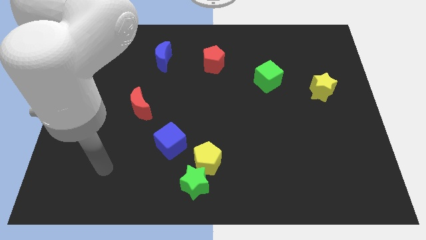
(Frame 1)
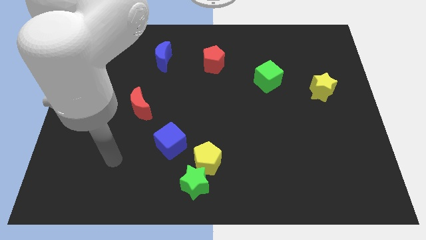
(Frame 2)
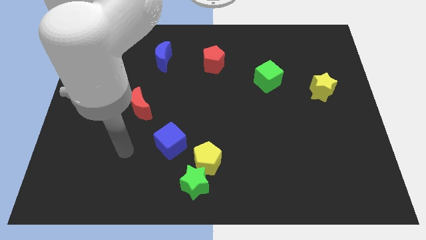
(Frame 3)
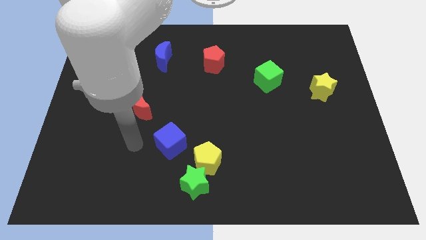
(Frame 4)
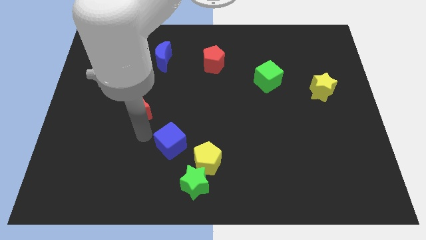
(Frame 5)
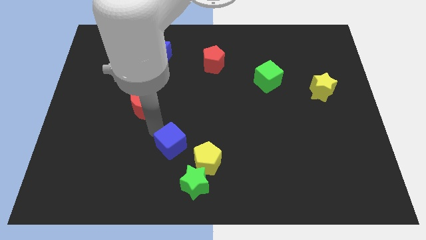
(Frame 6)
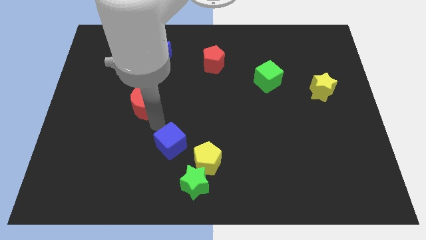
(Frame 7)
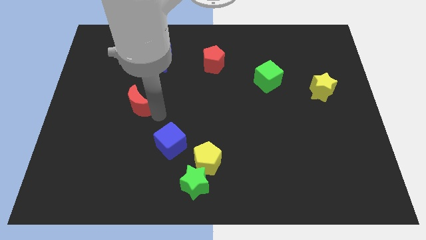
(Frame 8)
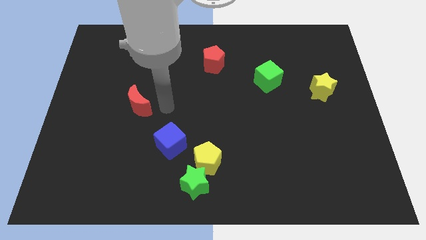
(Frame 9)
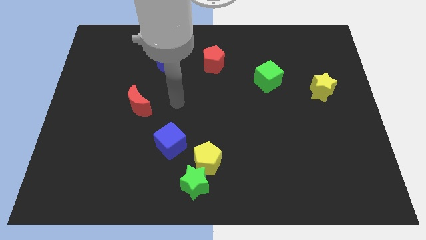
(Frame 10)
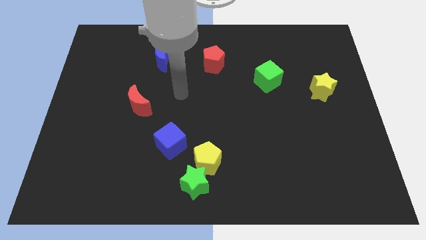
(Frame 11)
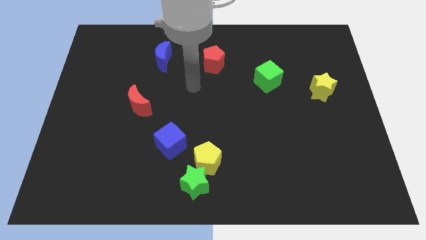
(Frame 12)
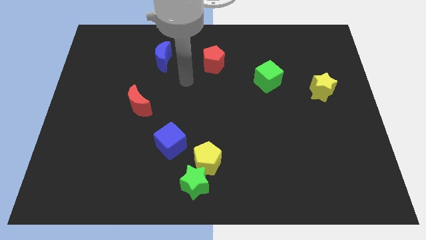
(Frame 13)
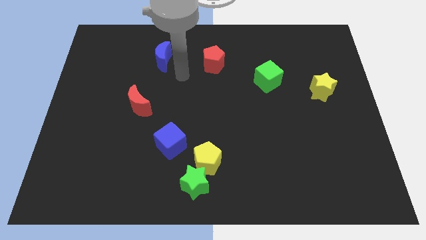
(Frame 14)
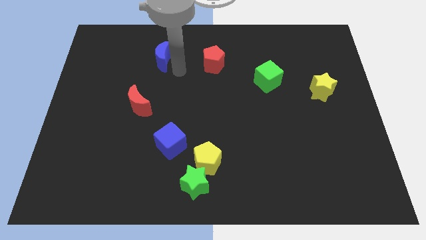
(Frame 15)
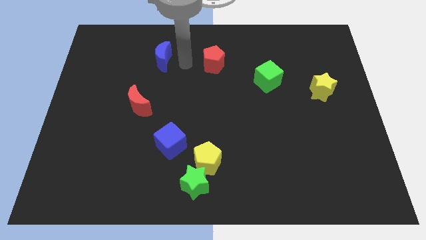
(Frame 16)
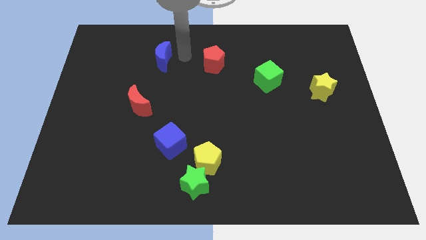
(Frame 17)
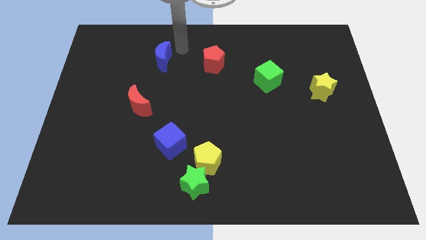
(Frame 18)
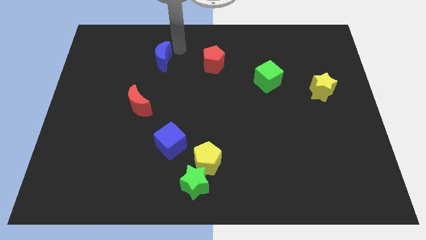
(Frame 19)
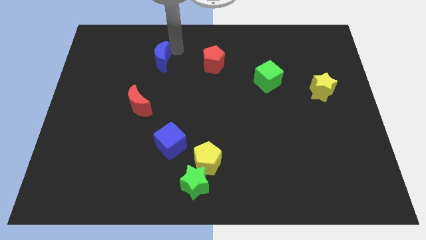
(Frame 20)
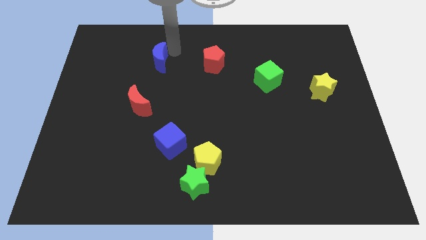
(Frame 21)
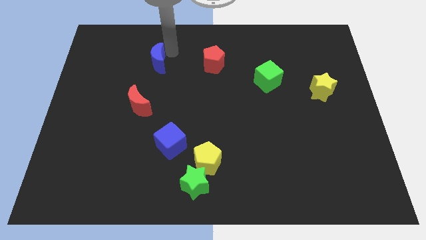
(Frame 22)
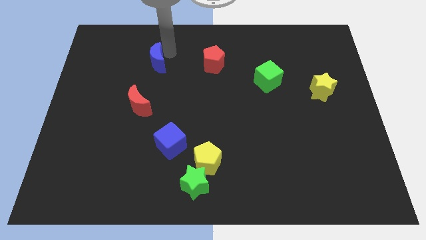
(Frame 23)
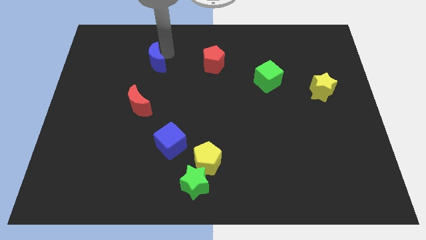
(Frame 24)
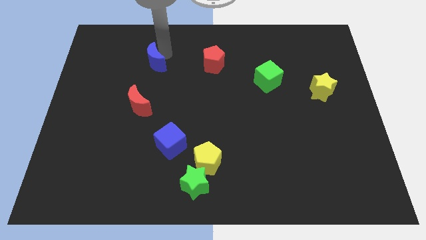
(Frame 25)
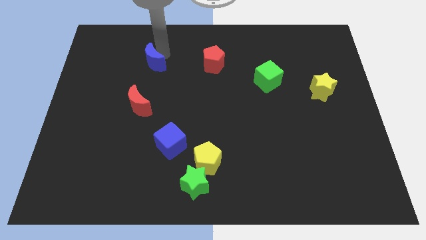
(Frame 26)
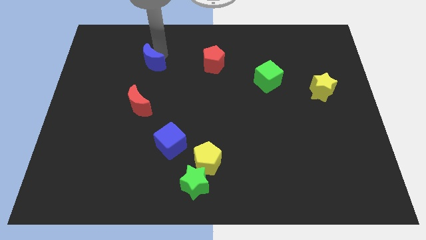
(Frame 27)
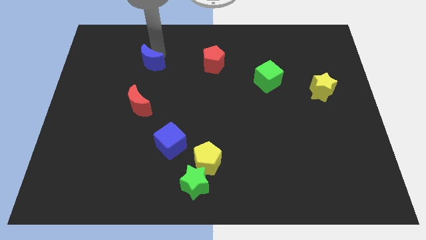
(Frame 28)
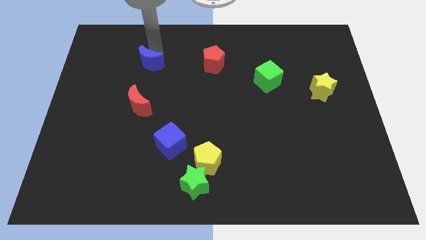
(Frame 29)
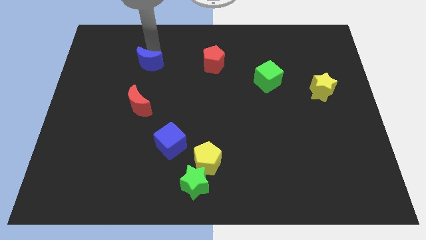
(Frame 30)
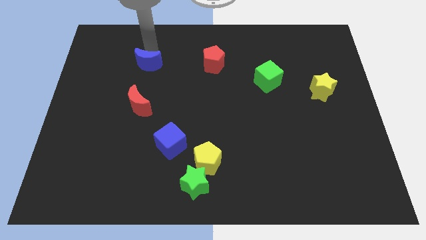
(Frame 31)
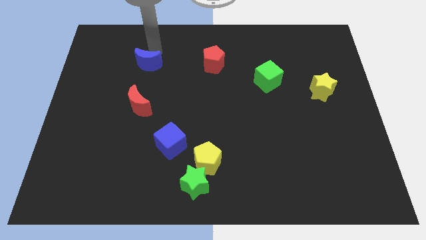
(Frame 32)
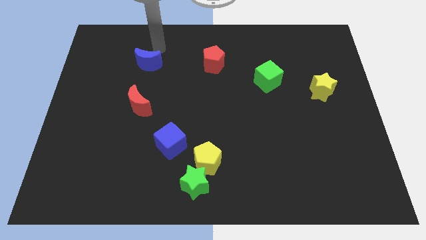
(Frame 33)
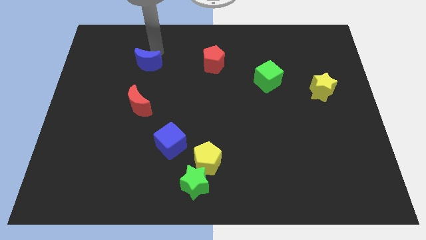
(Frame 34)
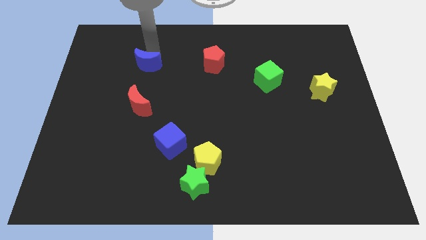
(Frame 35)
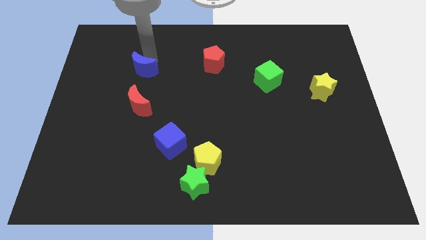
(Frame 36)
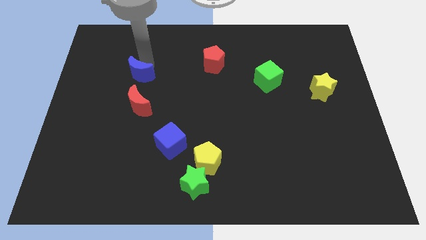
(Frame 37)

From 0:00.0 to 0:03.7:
push the blue moon a little bit down and left

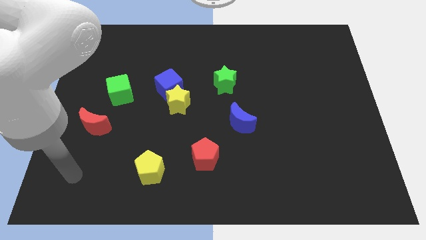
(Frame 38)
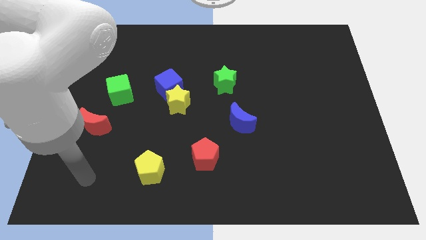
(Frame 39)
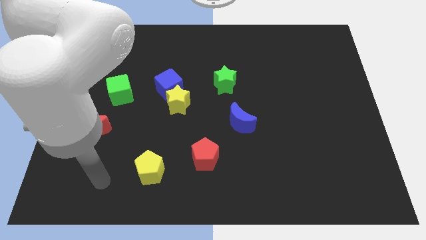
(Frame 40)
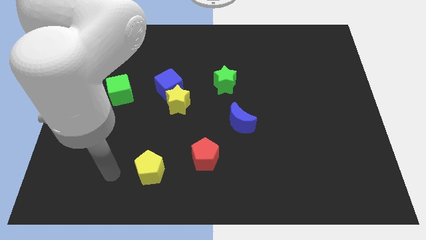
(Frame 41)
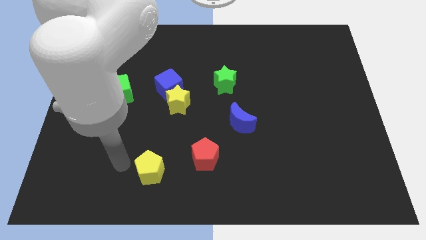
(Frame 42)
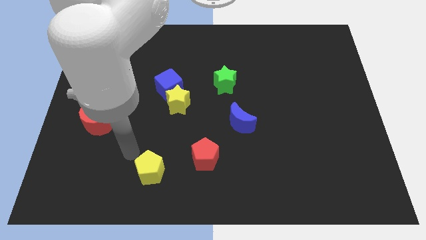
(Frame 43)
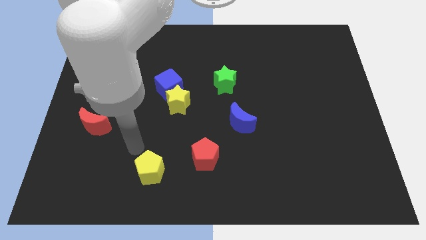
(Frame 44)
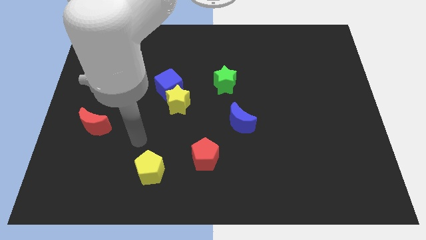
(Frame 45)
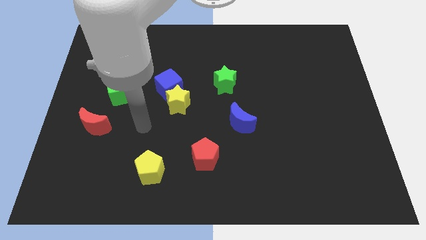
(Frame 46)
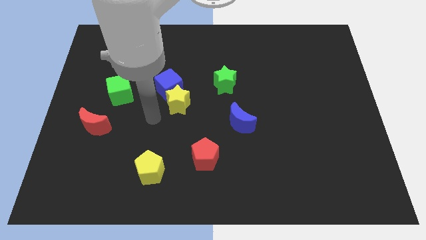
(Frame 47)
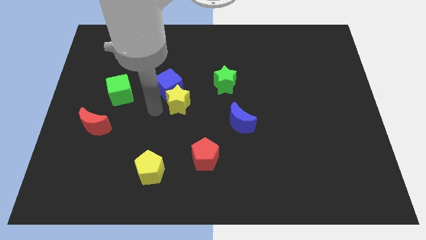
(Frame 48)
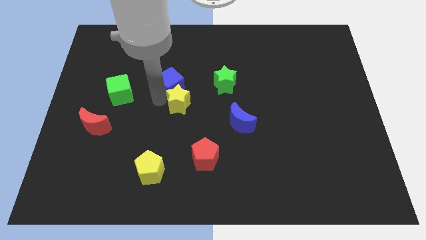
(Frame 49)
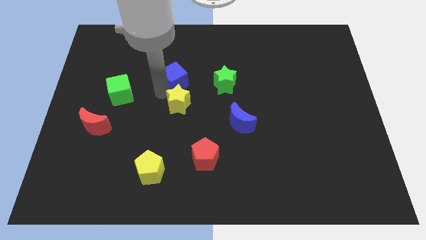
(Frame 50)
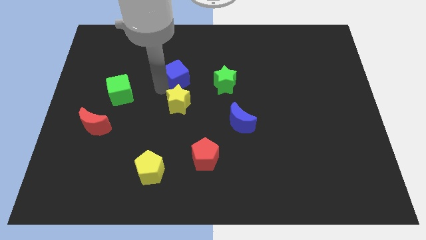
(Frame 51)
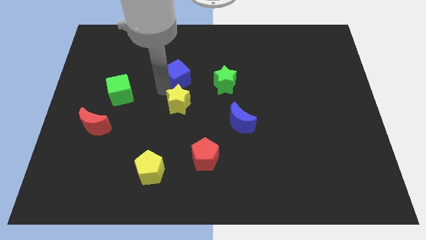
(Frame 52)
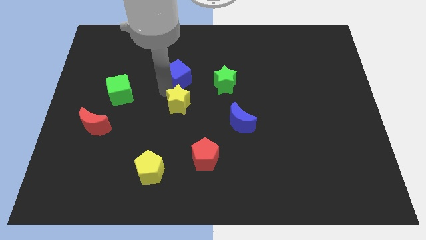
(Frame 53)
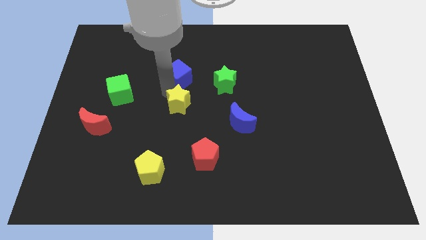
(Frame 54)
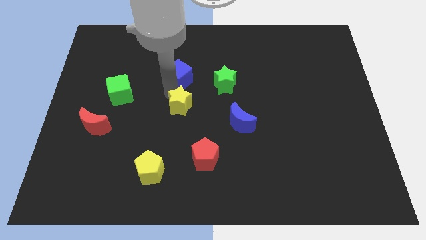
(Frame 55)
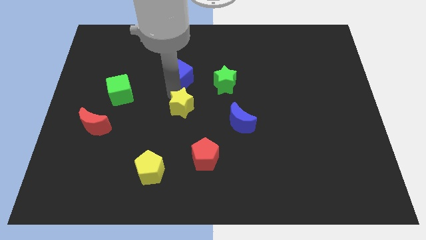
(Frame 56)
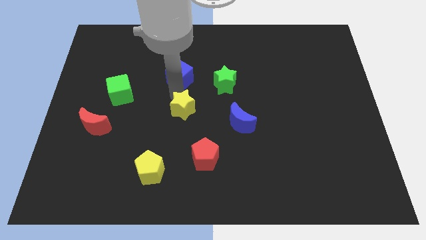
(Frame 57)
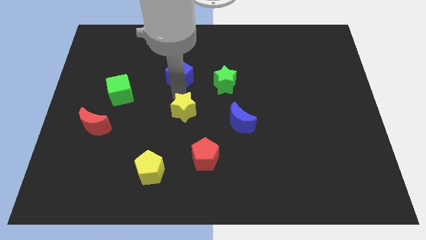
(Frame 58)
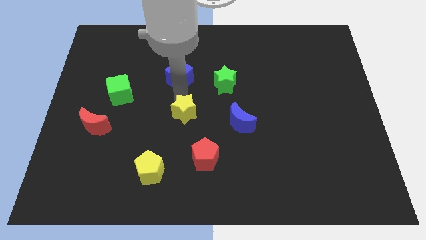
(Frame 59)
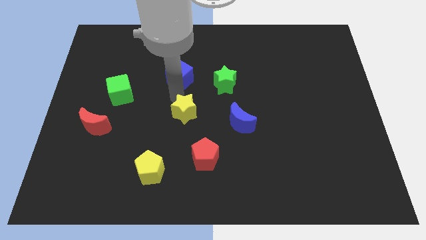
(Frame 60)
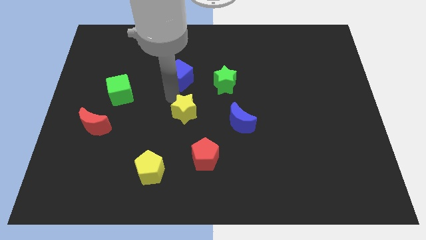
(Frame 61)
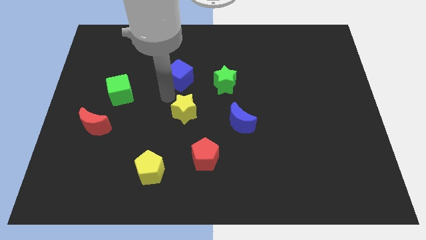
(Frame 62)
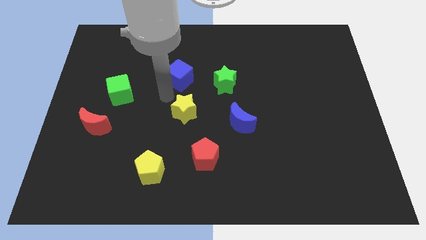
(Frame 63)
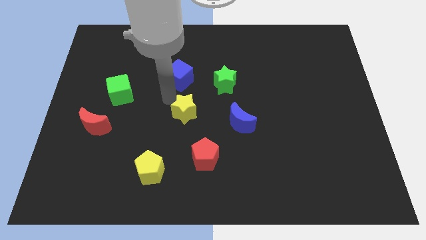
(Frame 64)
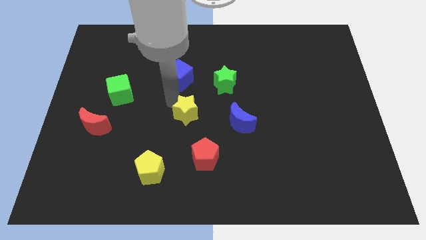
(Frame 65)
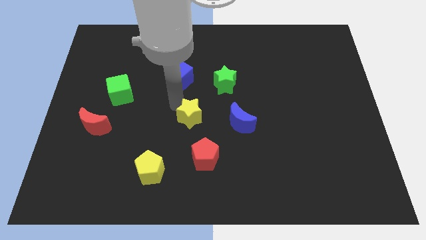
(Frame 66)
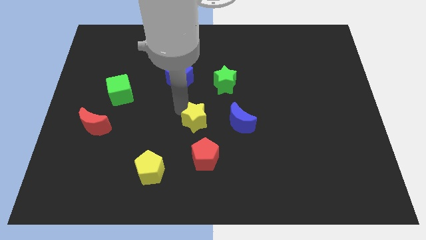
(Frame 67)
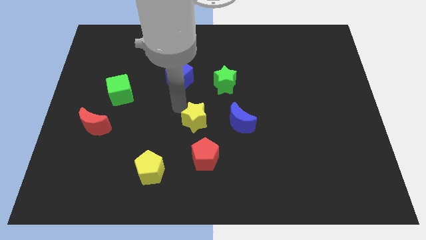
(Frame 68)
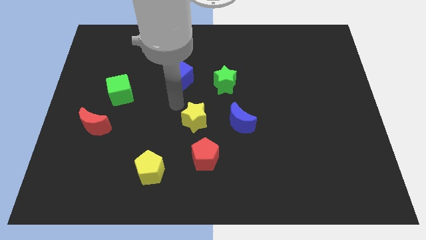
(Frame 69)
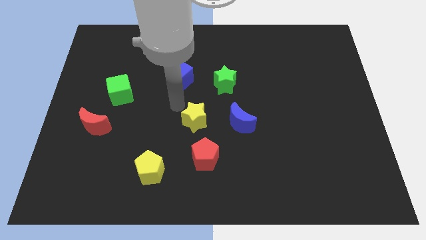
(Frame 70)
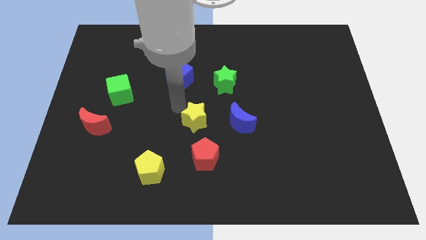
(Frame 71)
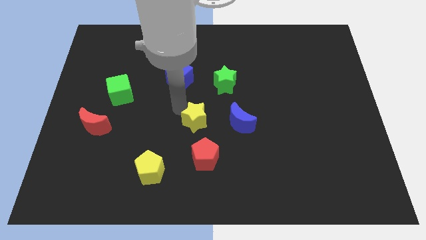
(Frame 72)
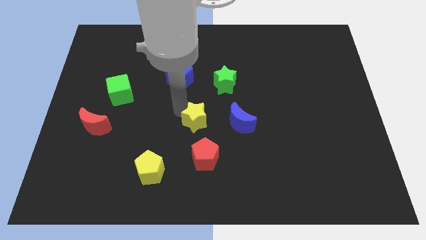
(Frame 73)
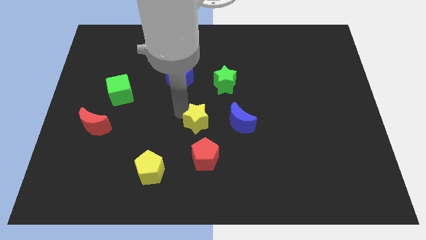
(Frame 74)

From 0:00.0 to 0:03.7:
slightly move the yellow star down and right

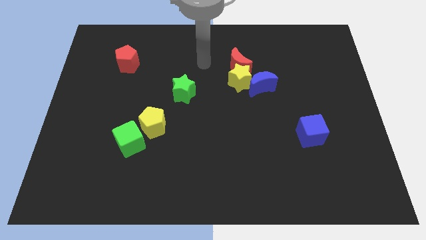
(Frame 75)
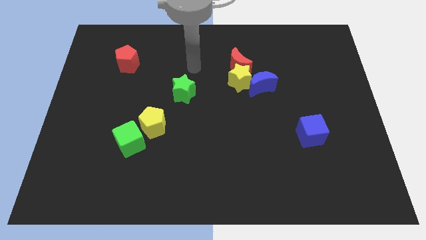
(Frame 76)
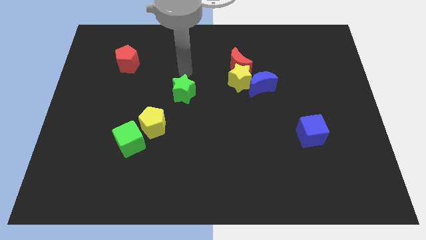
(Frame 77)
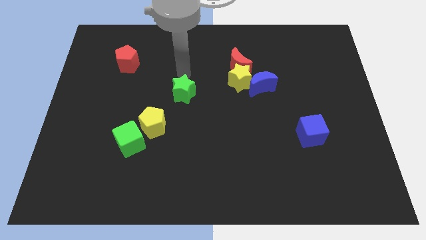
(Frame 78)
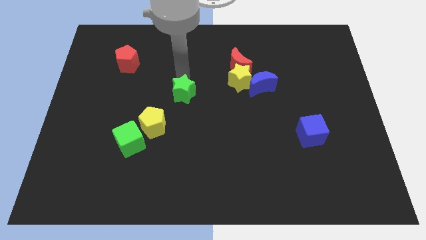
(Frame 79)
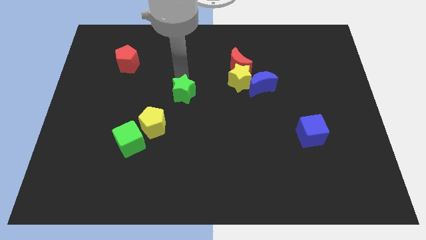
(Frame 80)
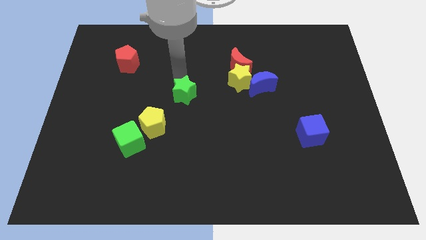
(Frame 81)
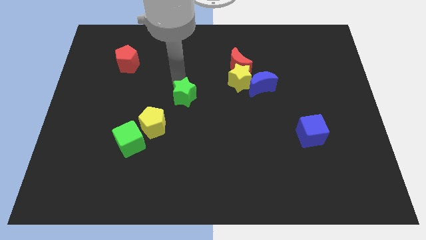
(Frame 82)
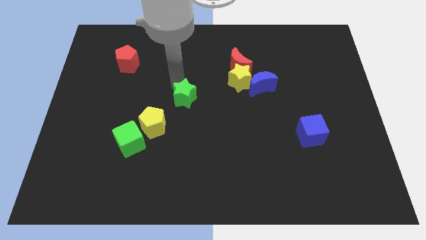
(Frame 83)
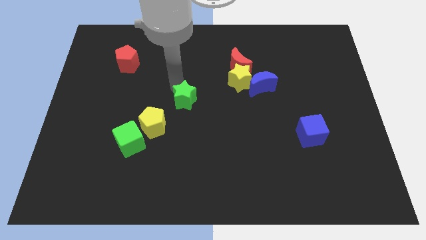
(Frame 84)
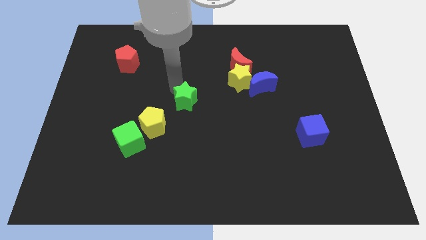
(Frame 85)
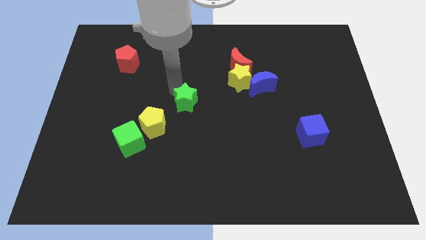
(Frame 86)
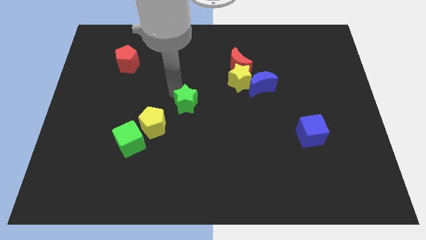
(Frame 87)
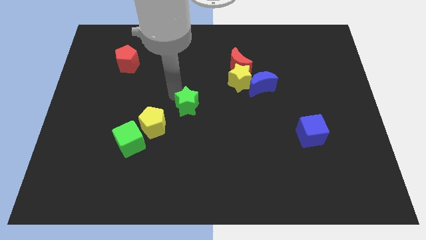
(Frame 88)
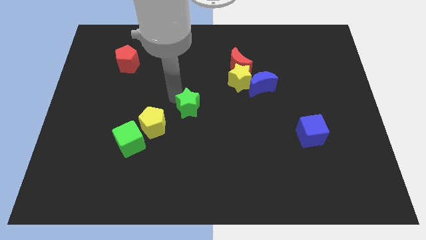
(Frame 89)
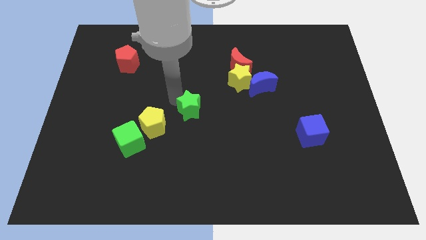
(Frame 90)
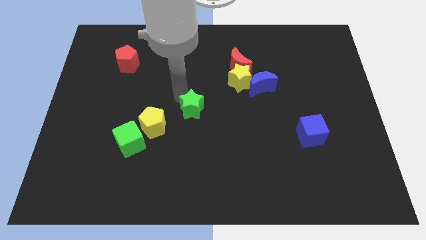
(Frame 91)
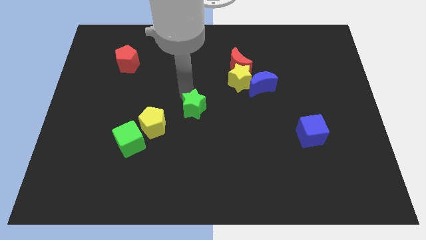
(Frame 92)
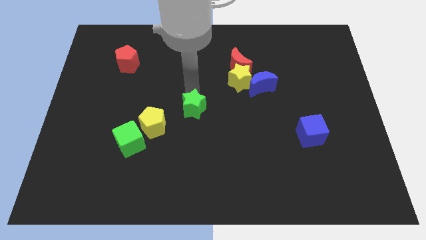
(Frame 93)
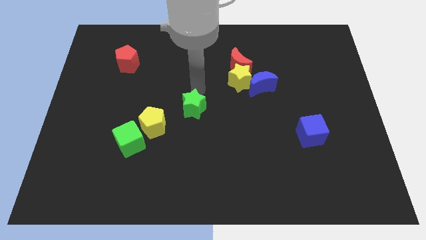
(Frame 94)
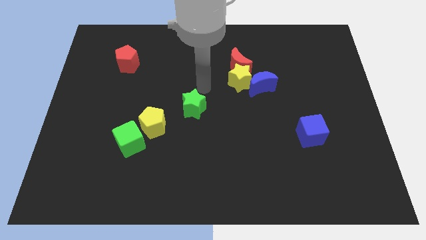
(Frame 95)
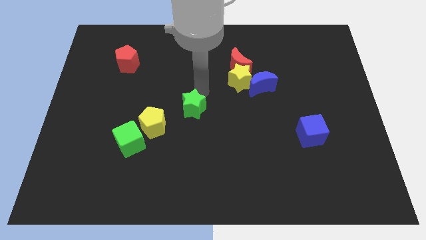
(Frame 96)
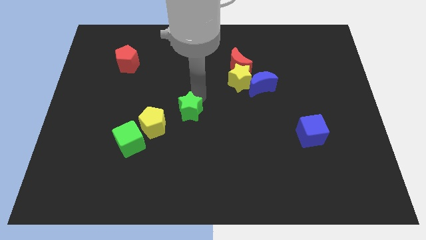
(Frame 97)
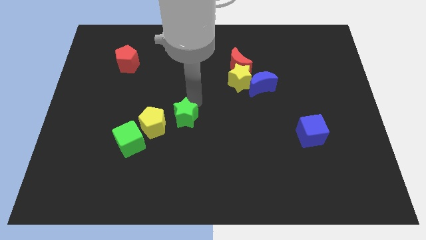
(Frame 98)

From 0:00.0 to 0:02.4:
push the green star down slightly
